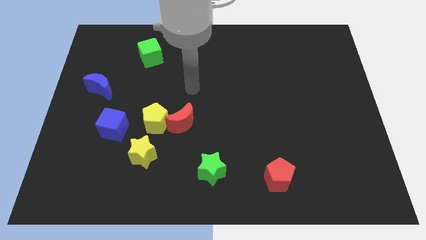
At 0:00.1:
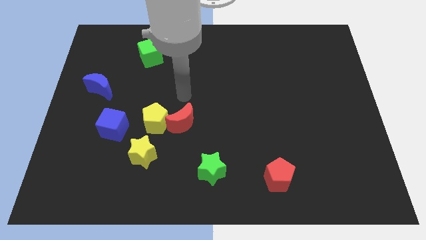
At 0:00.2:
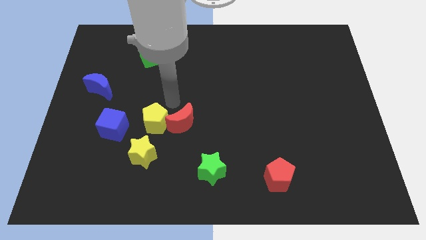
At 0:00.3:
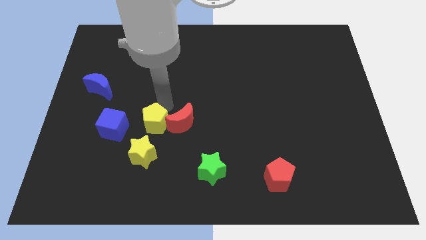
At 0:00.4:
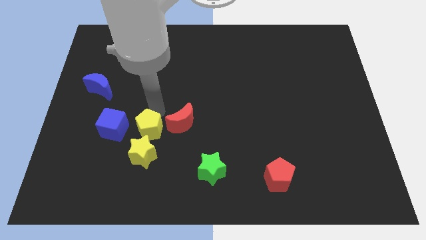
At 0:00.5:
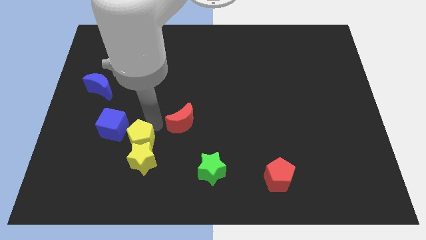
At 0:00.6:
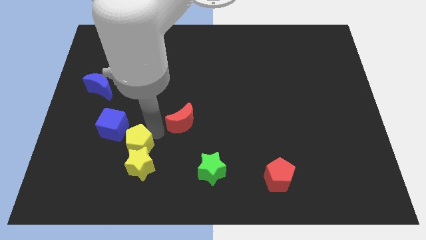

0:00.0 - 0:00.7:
pull the red moon apart from the yellow pentagon

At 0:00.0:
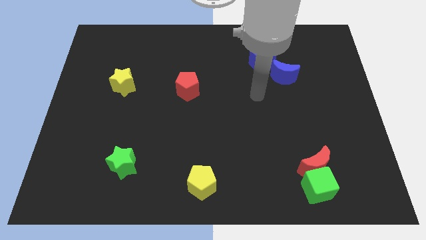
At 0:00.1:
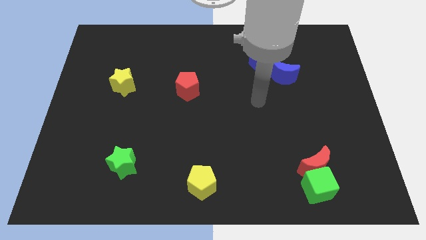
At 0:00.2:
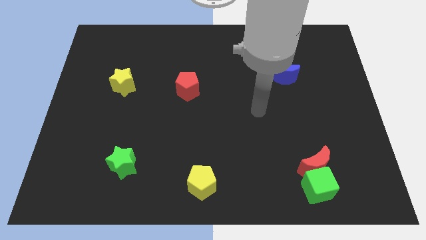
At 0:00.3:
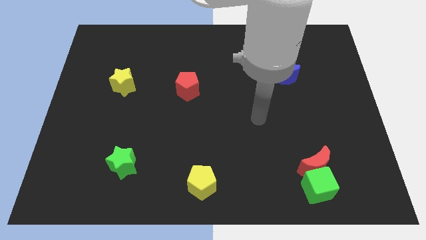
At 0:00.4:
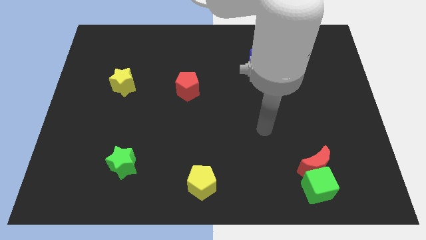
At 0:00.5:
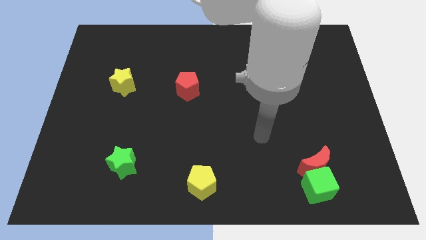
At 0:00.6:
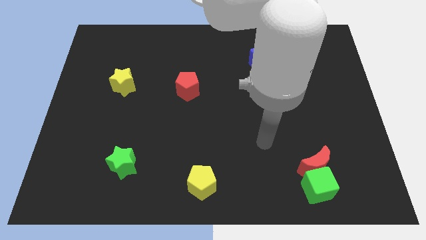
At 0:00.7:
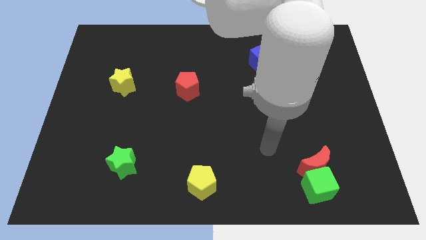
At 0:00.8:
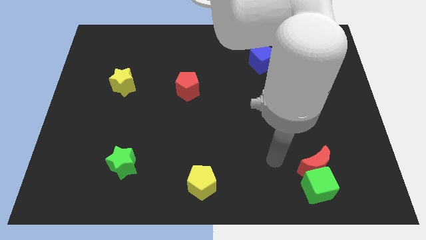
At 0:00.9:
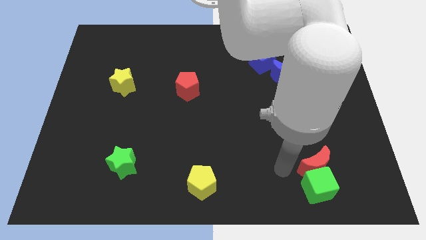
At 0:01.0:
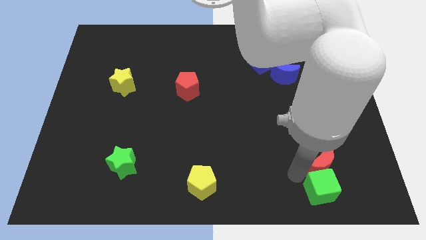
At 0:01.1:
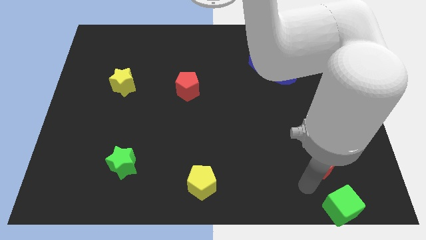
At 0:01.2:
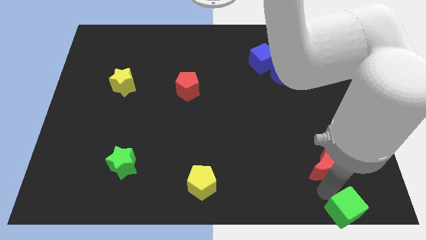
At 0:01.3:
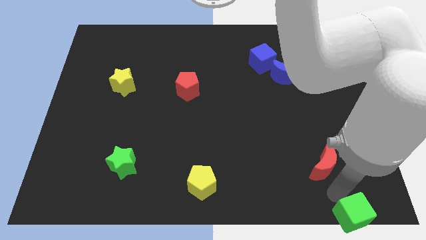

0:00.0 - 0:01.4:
pull the red moon apart from the green cube

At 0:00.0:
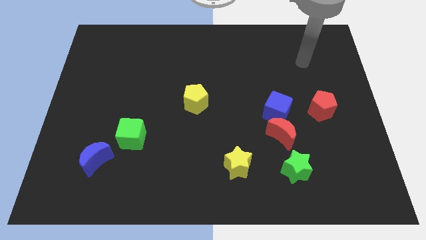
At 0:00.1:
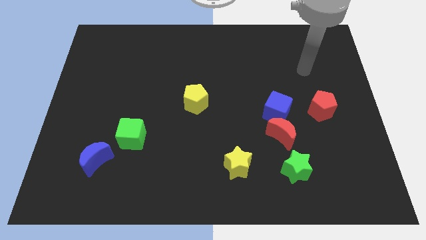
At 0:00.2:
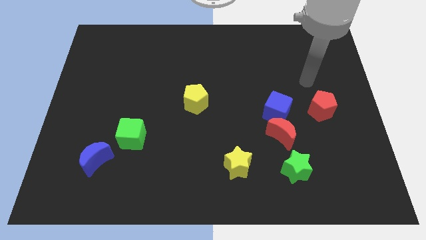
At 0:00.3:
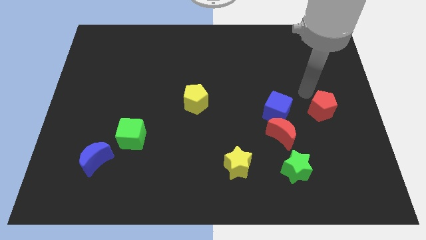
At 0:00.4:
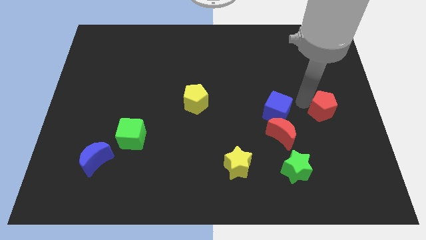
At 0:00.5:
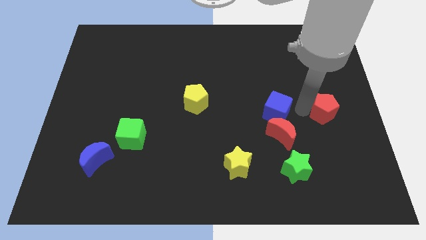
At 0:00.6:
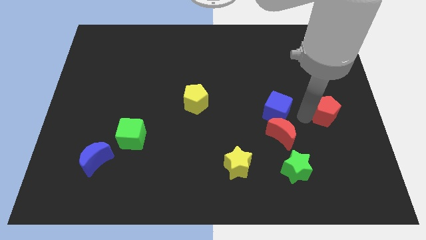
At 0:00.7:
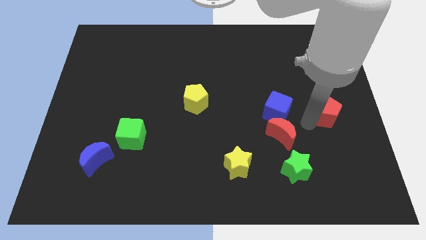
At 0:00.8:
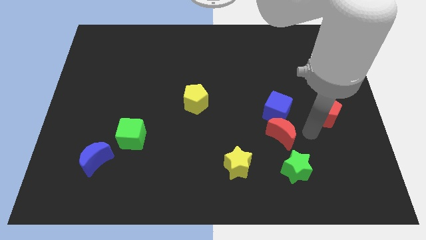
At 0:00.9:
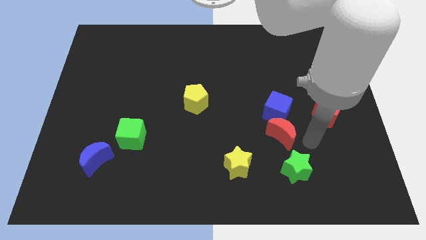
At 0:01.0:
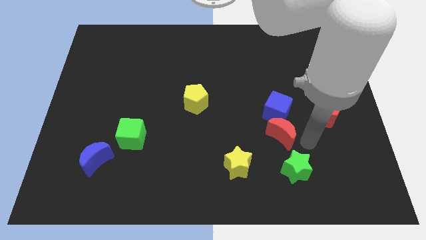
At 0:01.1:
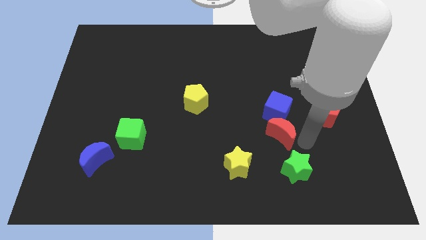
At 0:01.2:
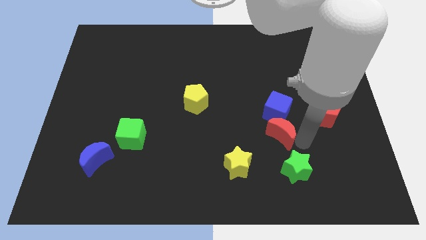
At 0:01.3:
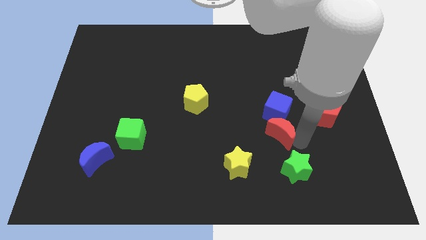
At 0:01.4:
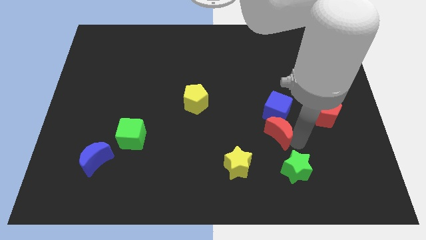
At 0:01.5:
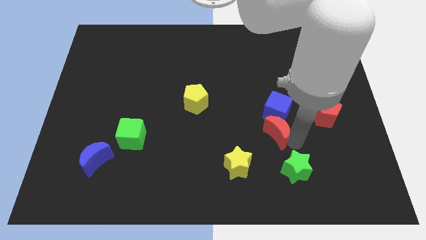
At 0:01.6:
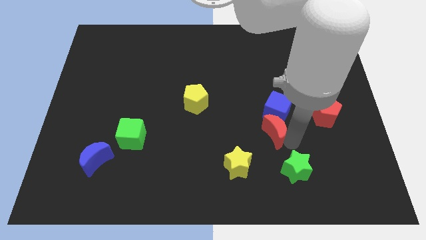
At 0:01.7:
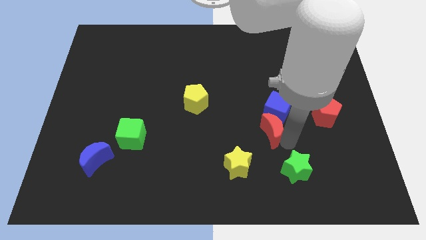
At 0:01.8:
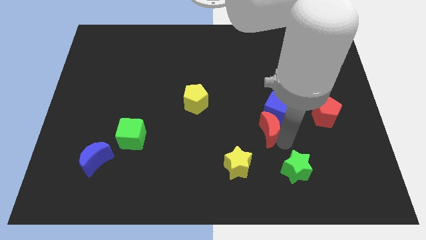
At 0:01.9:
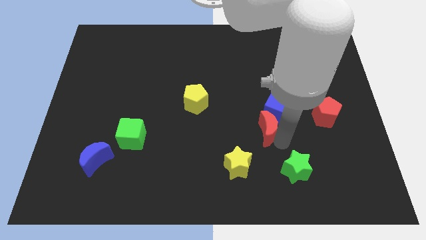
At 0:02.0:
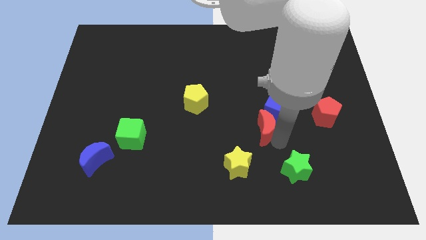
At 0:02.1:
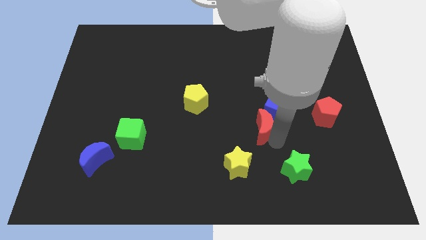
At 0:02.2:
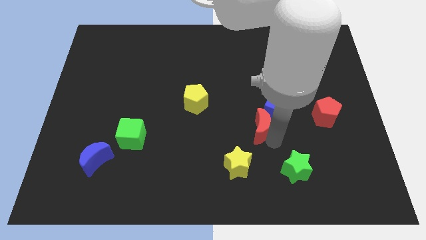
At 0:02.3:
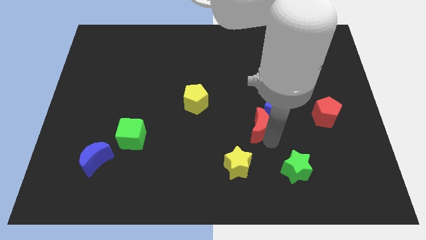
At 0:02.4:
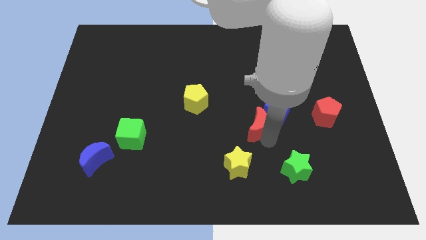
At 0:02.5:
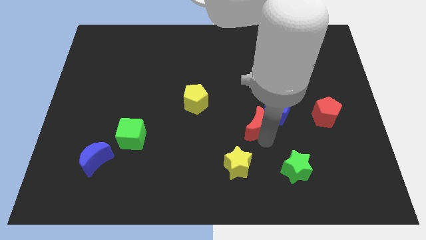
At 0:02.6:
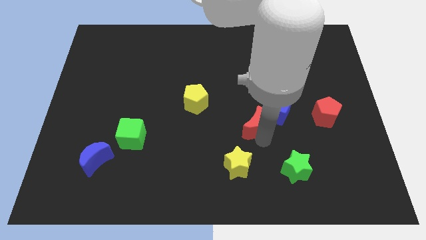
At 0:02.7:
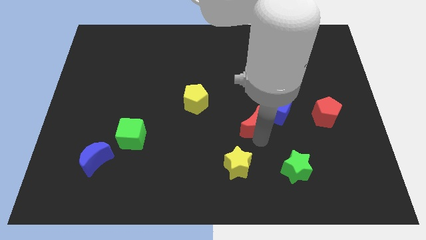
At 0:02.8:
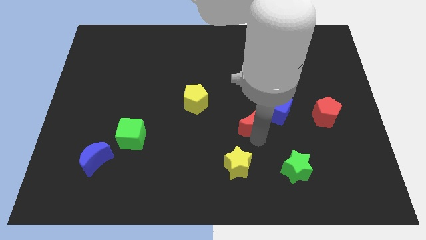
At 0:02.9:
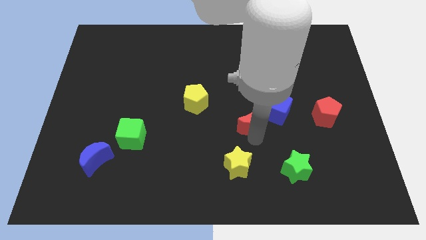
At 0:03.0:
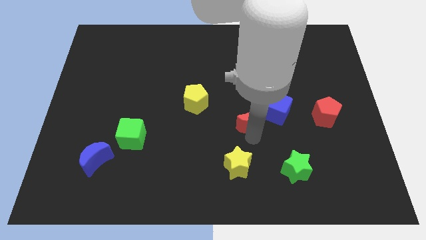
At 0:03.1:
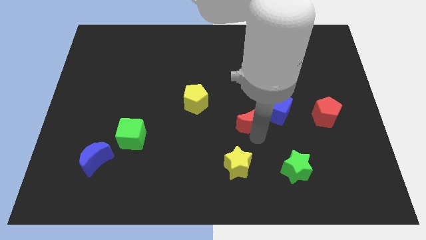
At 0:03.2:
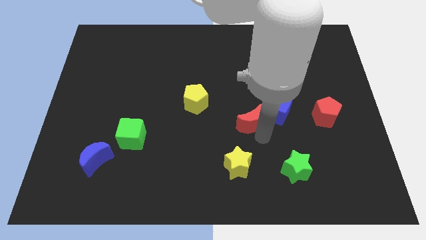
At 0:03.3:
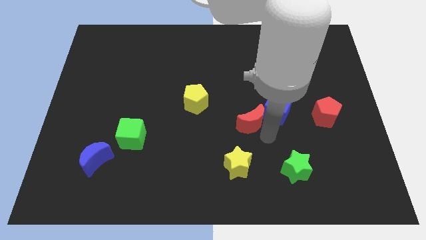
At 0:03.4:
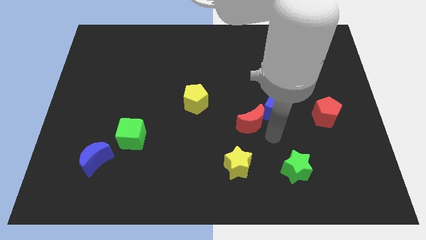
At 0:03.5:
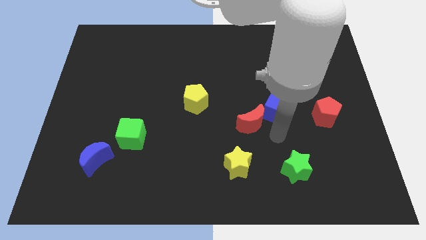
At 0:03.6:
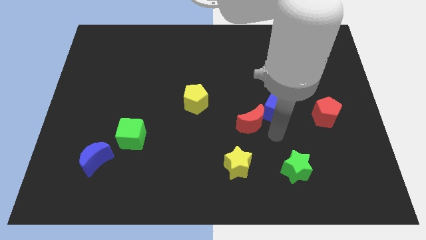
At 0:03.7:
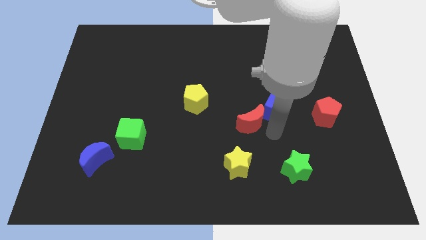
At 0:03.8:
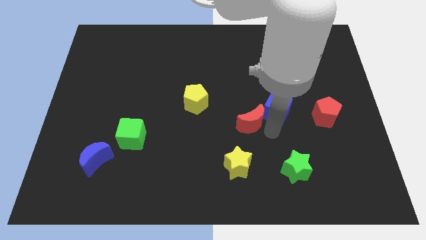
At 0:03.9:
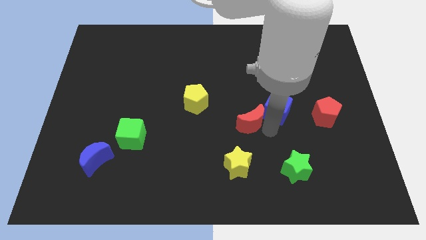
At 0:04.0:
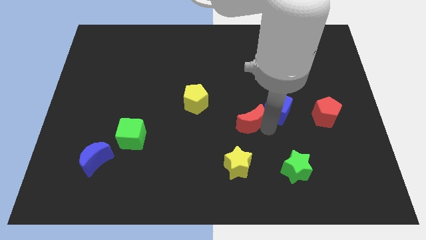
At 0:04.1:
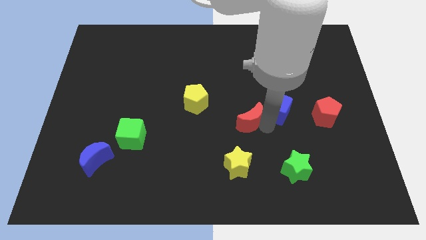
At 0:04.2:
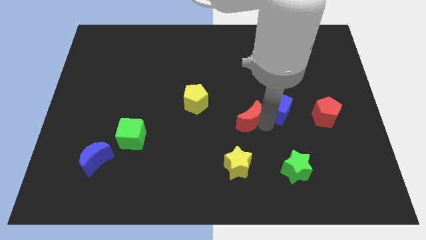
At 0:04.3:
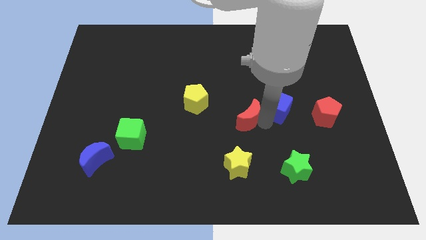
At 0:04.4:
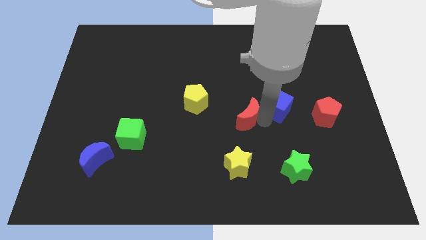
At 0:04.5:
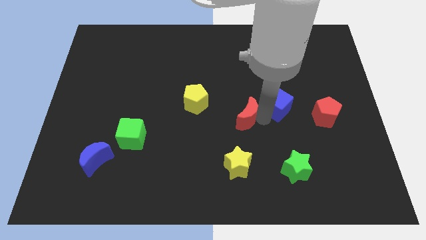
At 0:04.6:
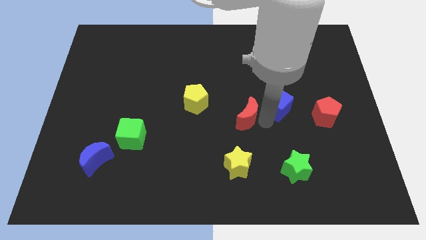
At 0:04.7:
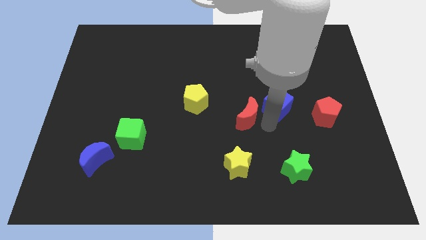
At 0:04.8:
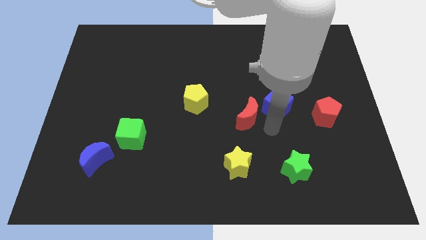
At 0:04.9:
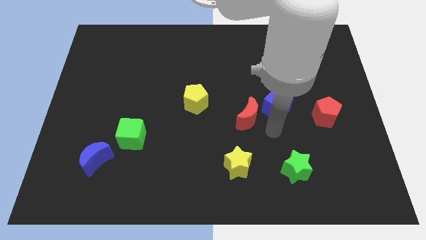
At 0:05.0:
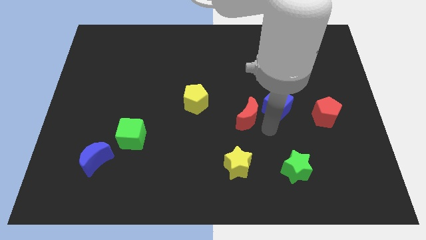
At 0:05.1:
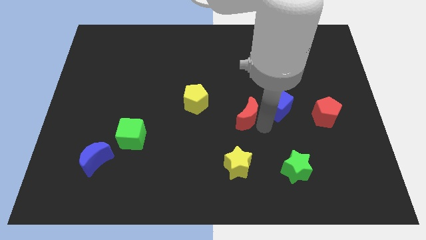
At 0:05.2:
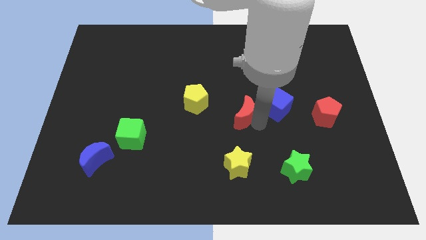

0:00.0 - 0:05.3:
move the red moon away from the blue cube and green star

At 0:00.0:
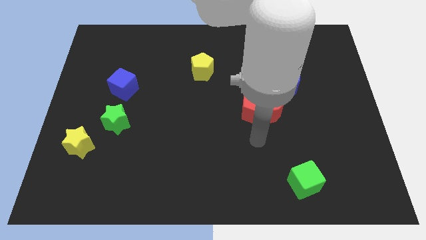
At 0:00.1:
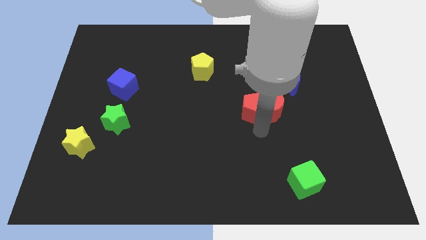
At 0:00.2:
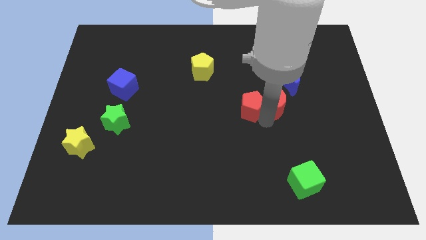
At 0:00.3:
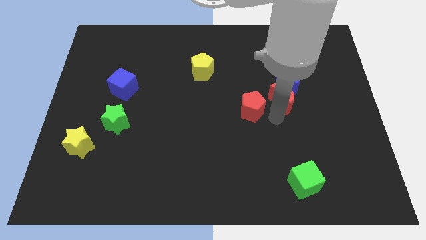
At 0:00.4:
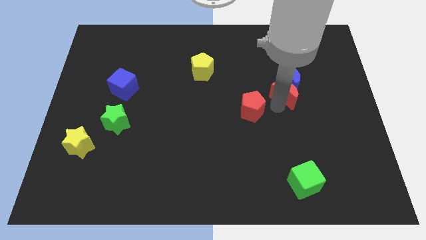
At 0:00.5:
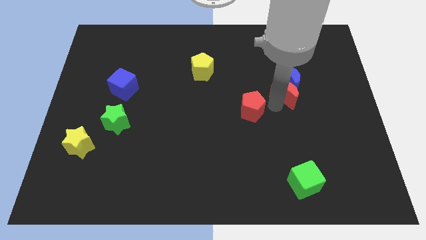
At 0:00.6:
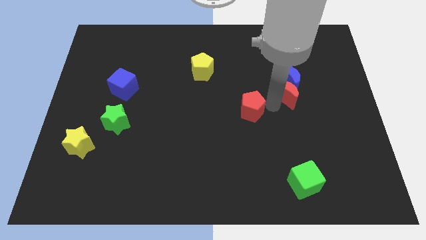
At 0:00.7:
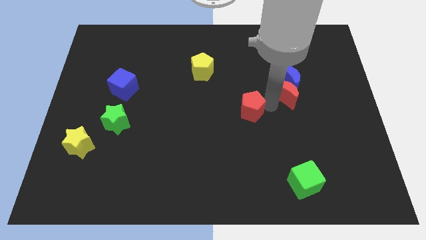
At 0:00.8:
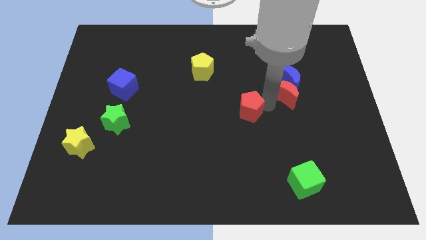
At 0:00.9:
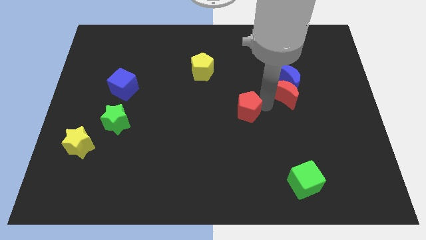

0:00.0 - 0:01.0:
move the red pentagon away from the red moon

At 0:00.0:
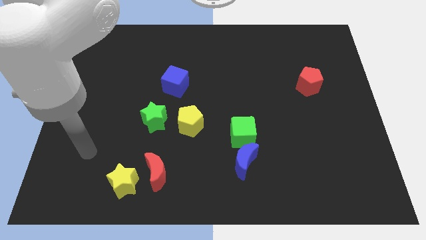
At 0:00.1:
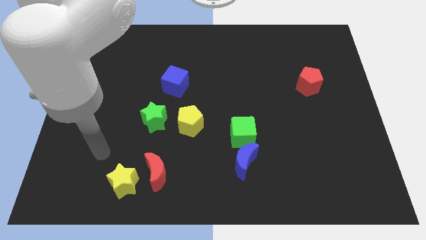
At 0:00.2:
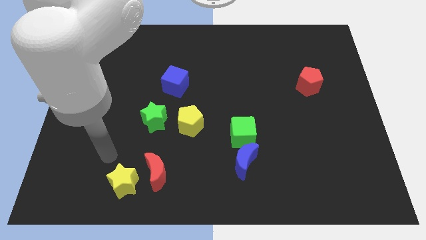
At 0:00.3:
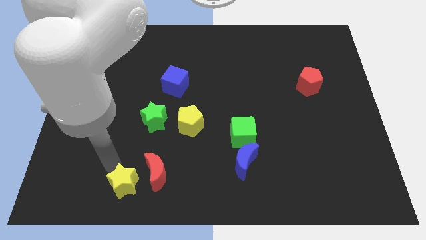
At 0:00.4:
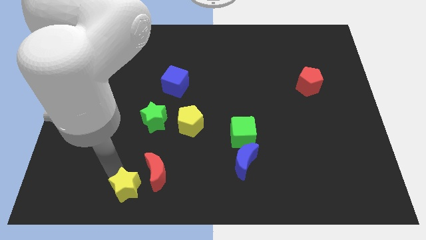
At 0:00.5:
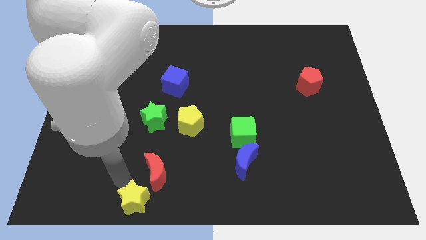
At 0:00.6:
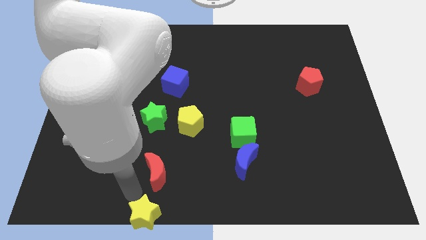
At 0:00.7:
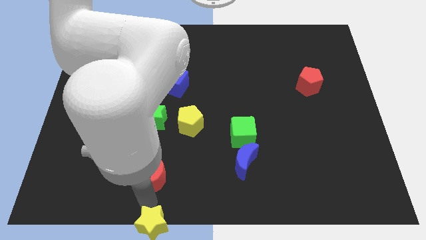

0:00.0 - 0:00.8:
move the red moon away from the yellow star
